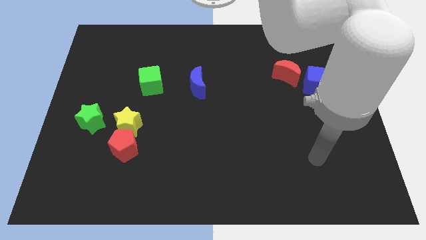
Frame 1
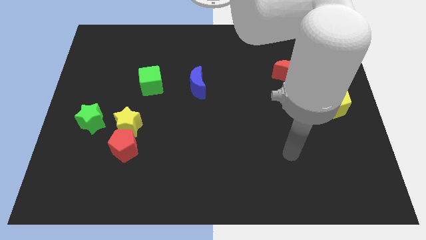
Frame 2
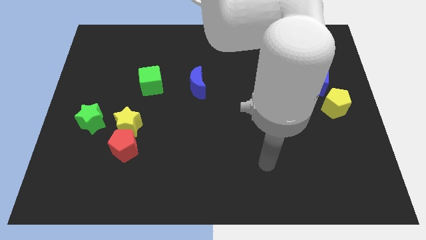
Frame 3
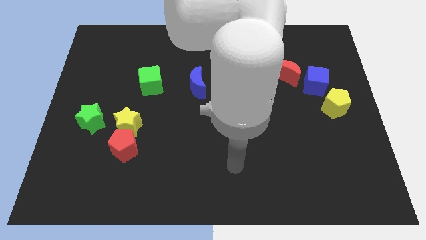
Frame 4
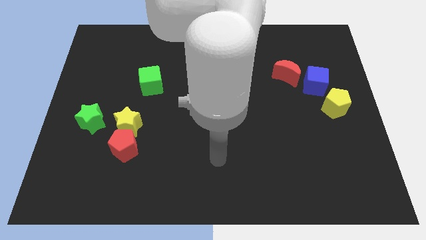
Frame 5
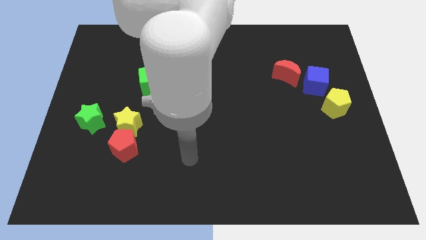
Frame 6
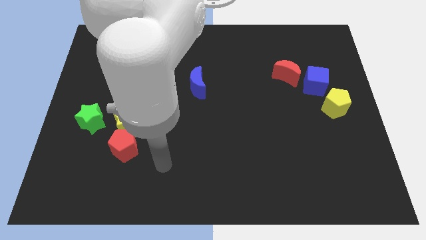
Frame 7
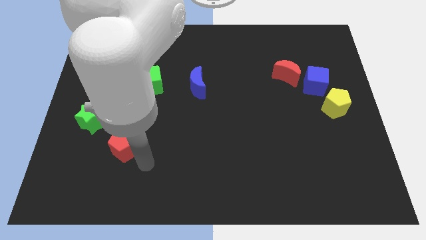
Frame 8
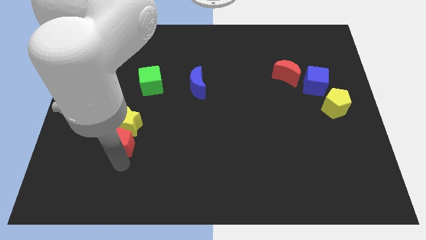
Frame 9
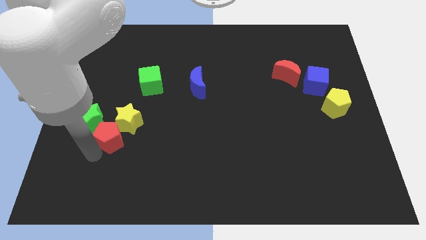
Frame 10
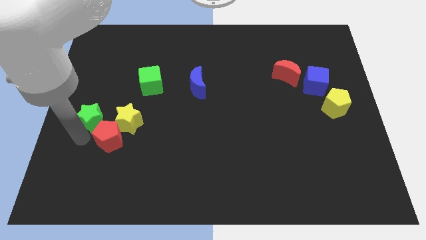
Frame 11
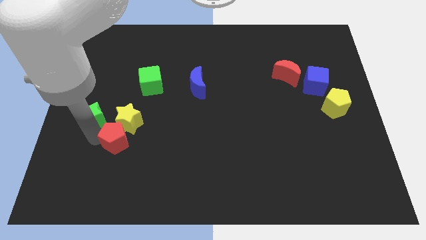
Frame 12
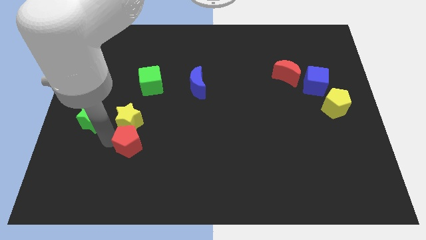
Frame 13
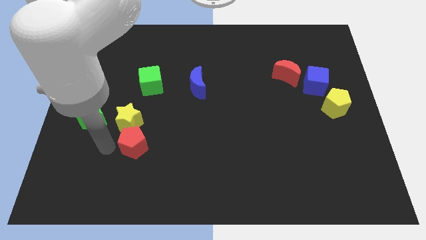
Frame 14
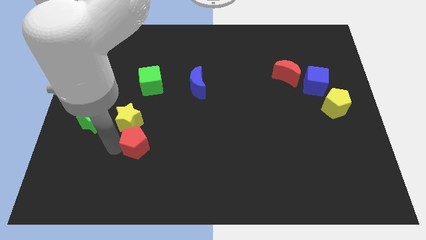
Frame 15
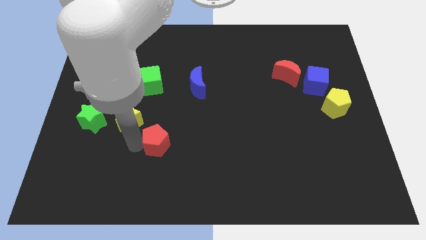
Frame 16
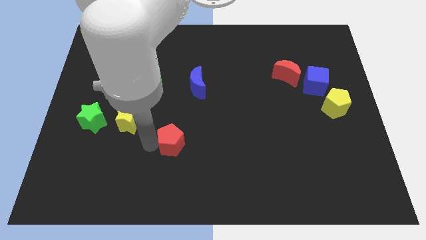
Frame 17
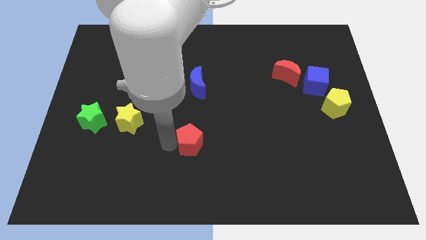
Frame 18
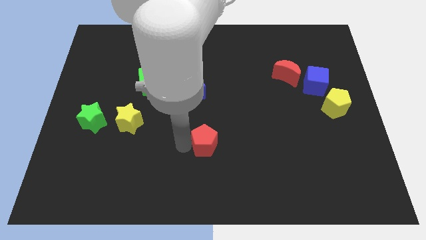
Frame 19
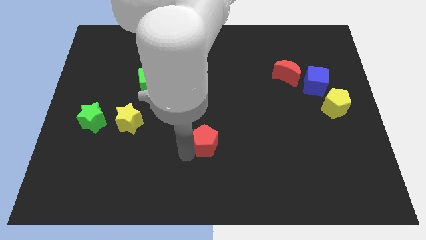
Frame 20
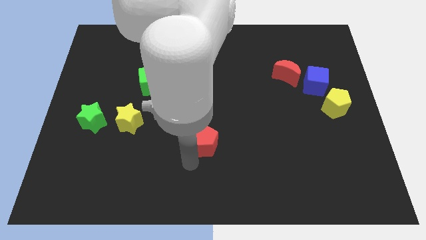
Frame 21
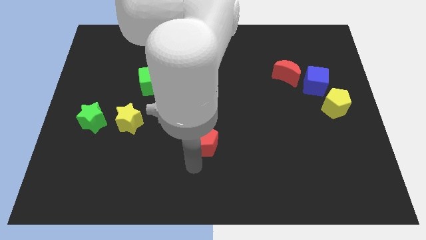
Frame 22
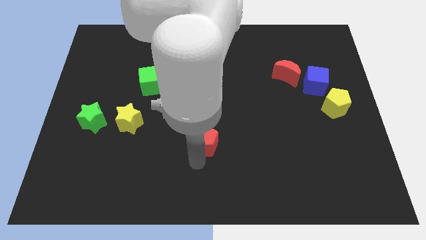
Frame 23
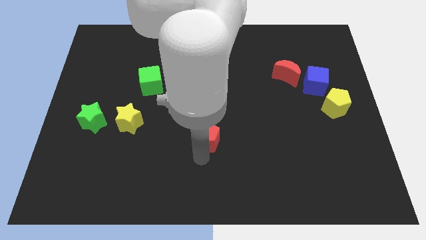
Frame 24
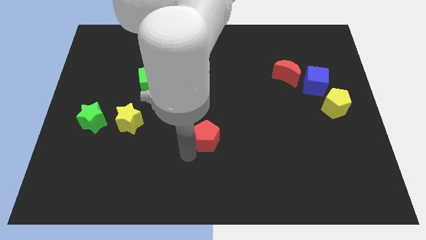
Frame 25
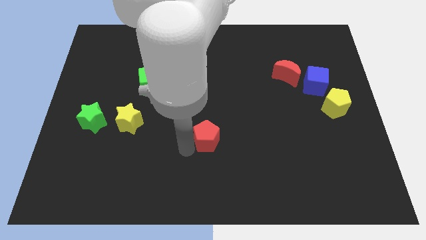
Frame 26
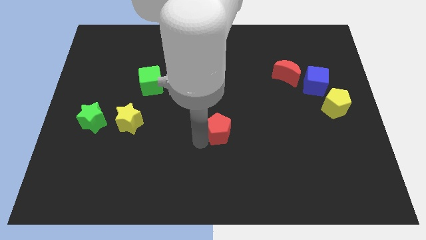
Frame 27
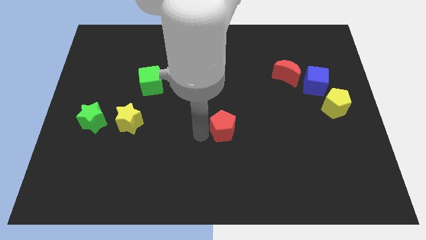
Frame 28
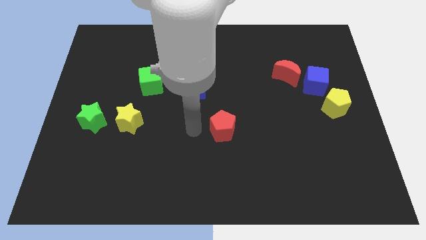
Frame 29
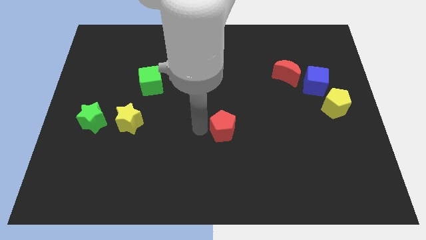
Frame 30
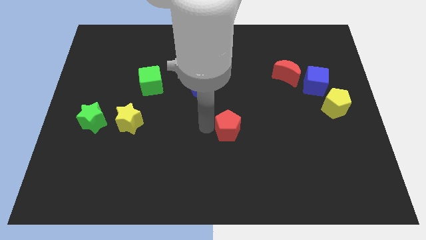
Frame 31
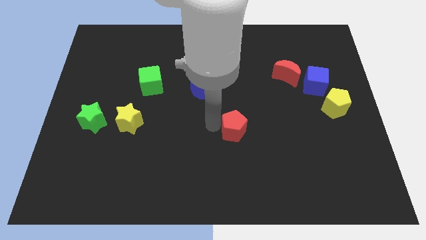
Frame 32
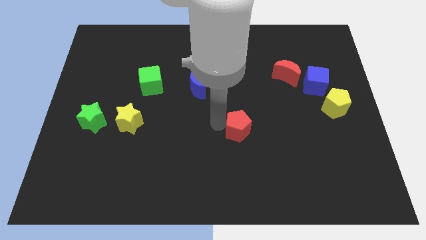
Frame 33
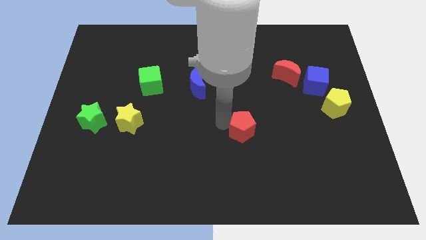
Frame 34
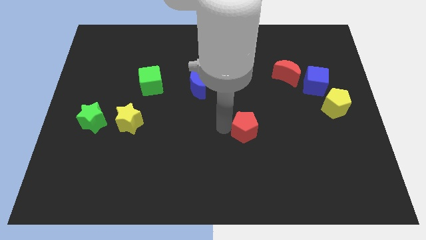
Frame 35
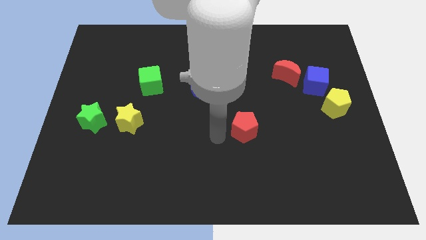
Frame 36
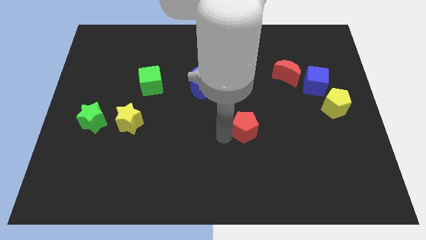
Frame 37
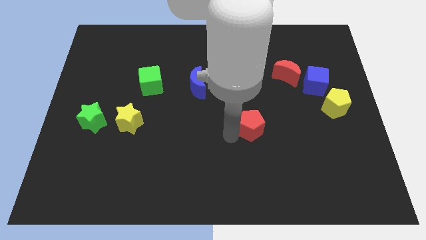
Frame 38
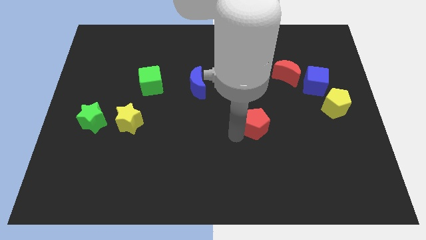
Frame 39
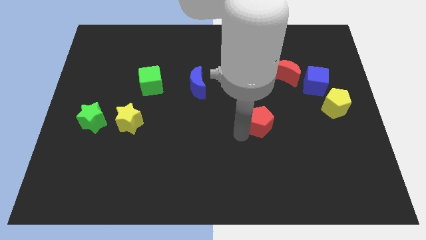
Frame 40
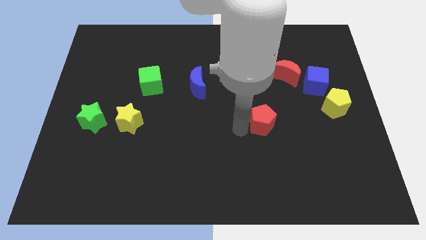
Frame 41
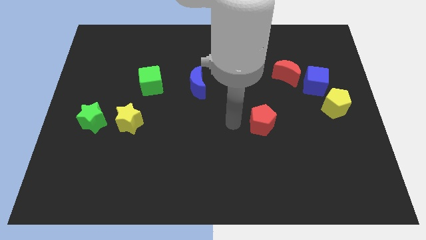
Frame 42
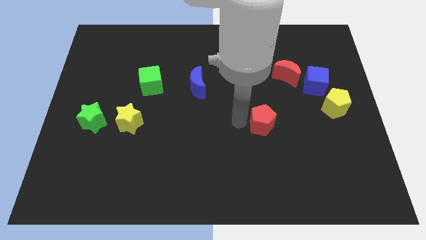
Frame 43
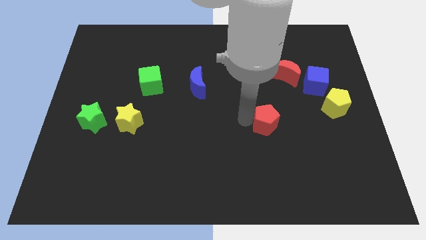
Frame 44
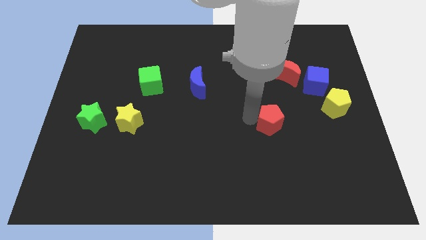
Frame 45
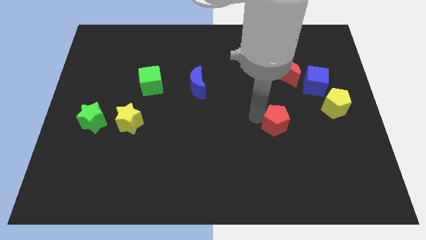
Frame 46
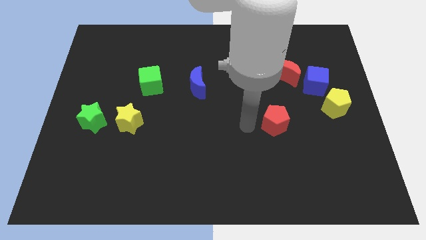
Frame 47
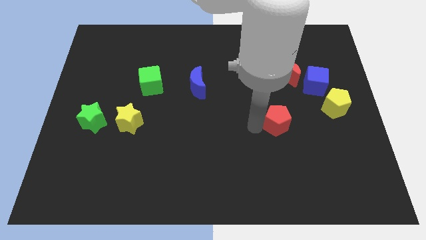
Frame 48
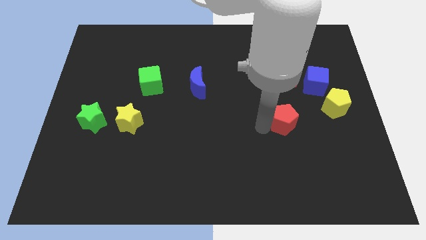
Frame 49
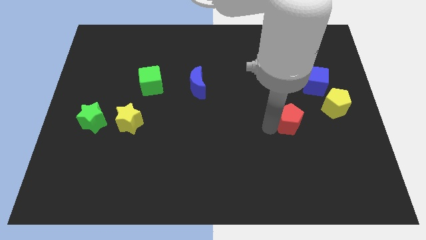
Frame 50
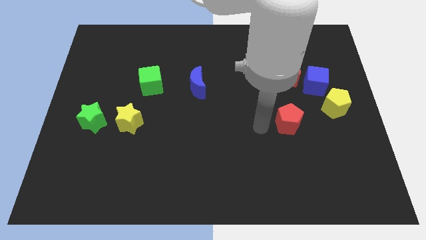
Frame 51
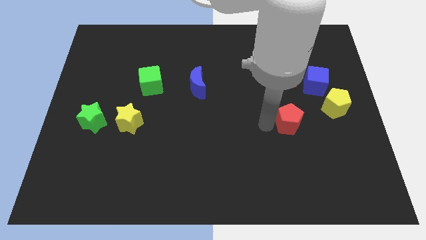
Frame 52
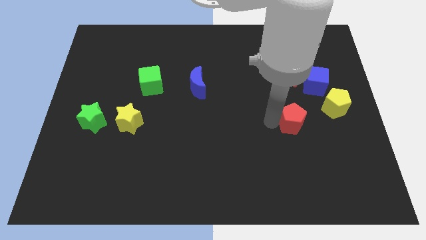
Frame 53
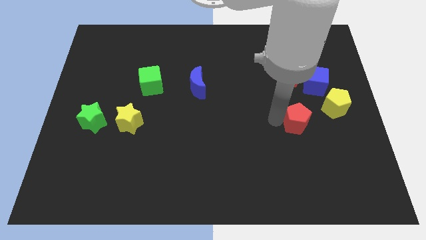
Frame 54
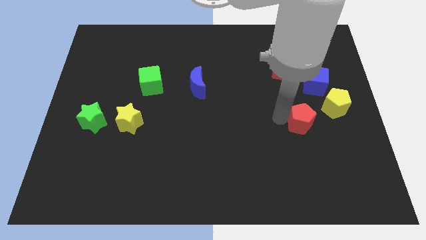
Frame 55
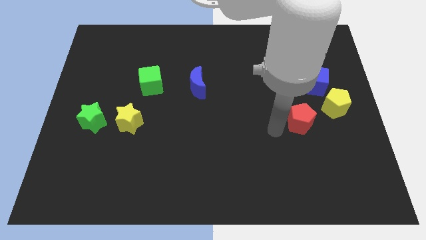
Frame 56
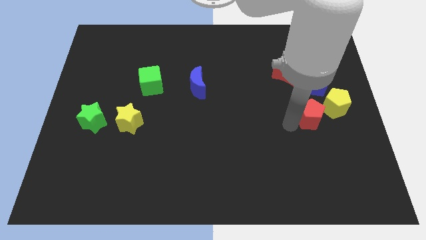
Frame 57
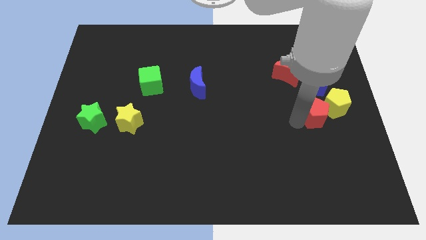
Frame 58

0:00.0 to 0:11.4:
move the red pentagon next to the yellow pentagon

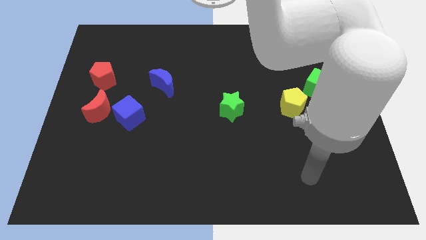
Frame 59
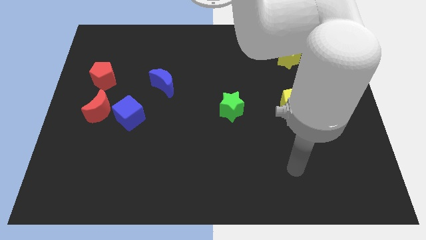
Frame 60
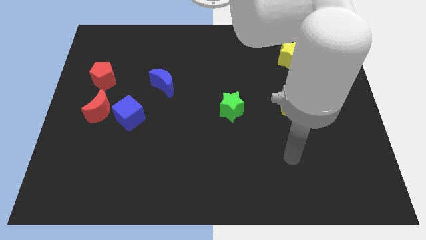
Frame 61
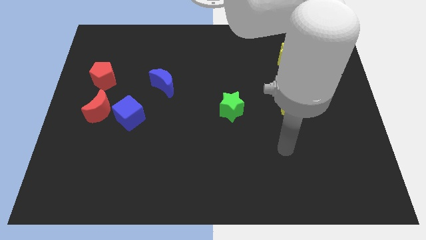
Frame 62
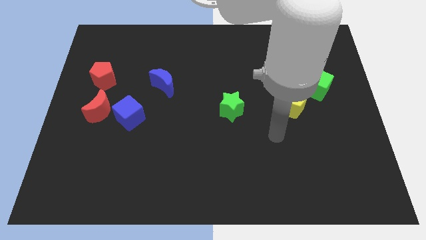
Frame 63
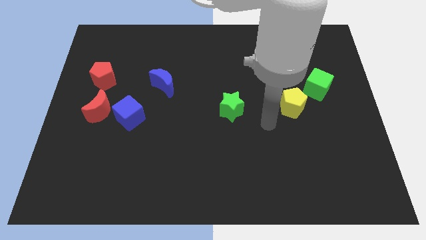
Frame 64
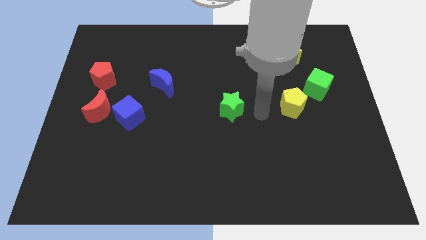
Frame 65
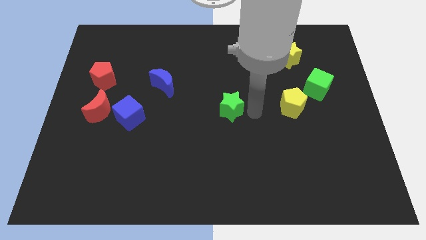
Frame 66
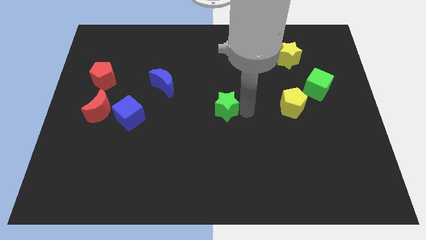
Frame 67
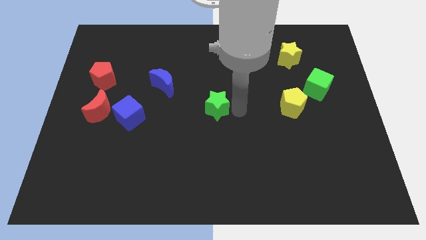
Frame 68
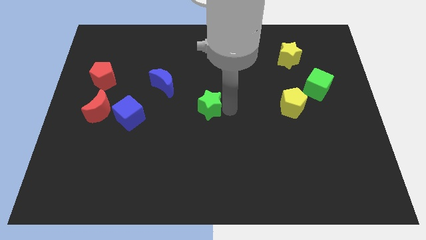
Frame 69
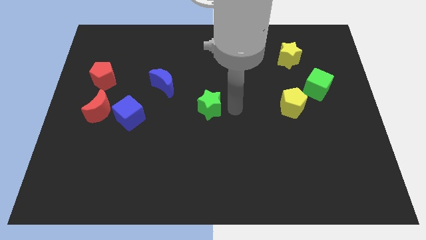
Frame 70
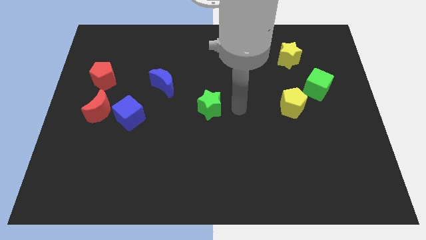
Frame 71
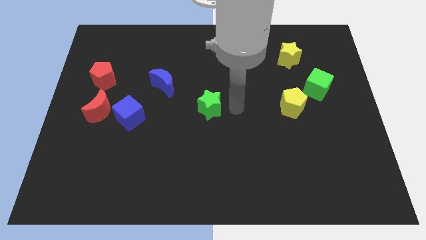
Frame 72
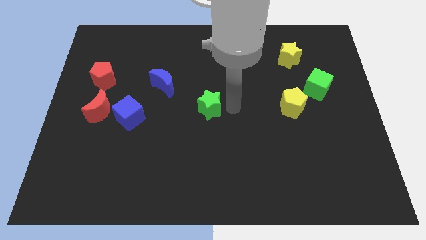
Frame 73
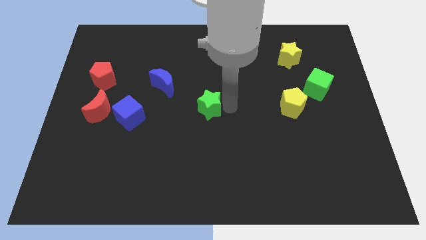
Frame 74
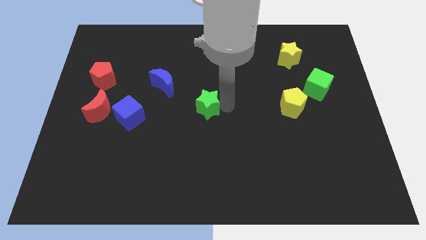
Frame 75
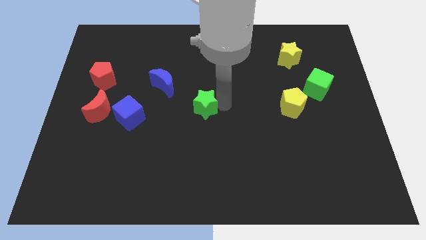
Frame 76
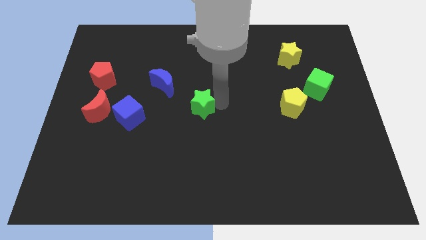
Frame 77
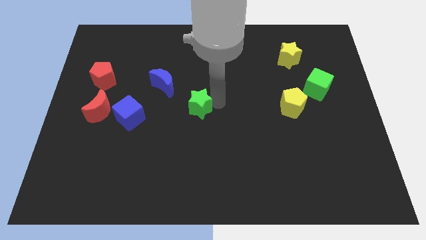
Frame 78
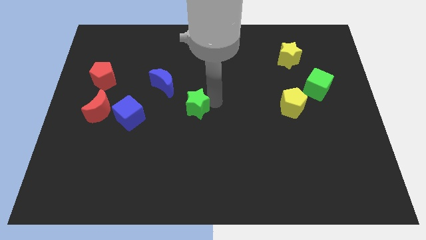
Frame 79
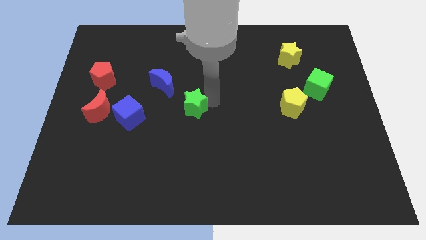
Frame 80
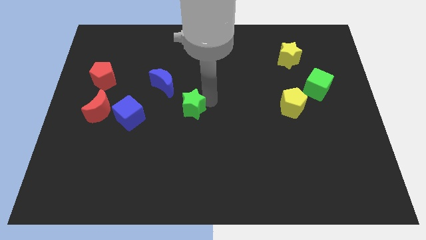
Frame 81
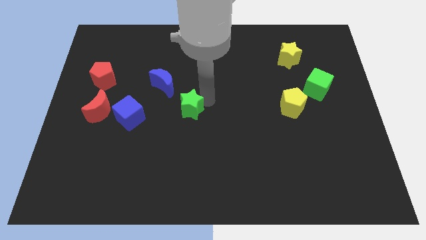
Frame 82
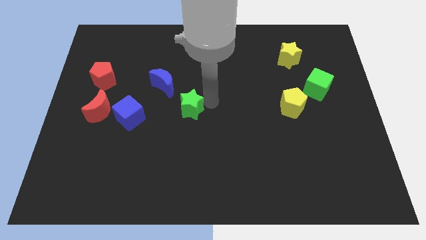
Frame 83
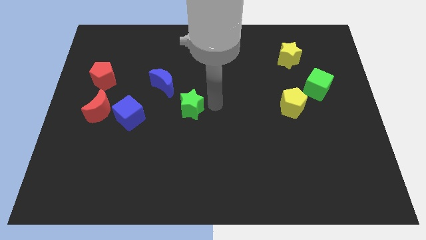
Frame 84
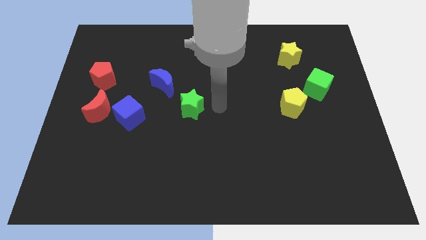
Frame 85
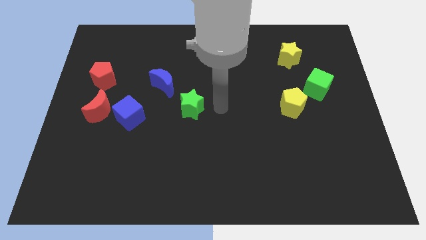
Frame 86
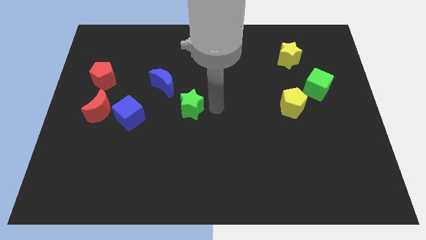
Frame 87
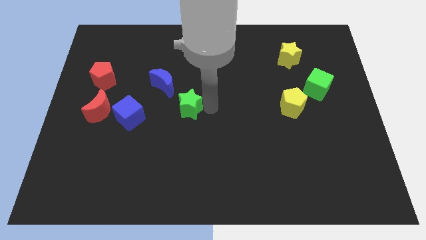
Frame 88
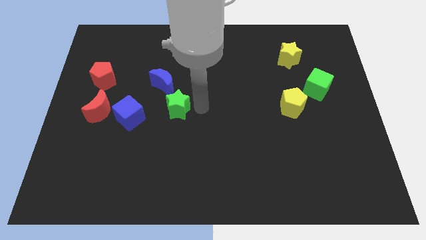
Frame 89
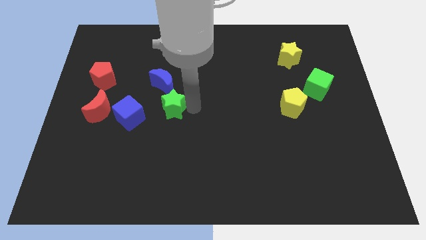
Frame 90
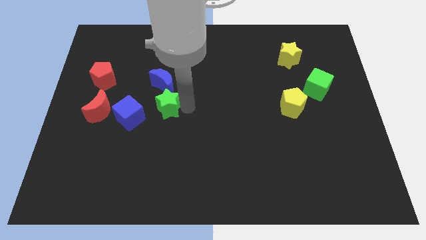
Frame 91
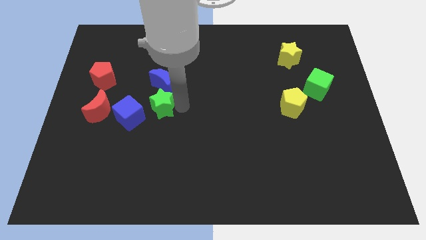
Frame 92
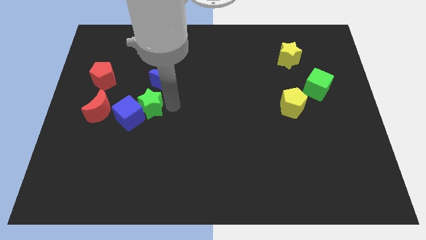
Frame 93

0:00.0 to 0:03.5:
push the green star next to the blue cube
